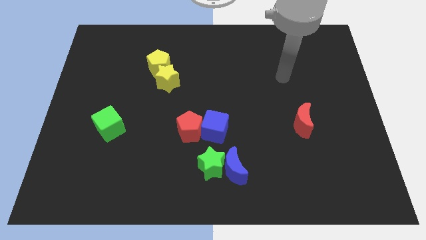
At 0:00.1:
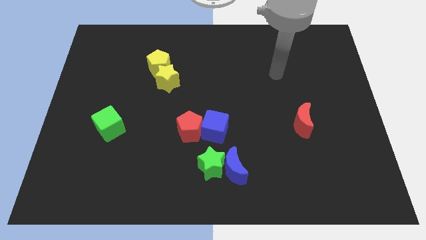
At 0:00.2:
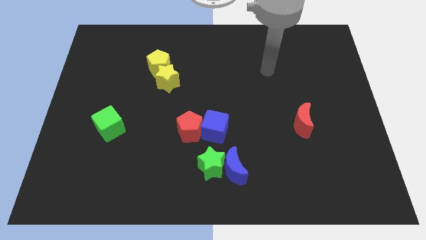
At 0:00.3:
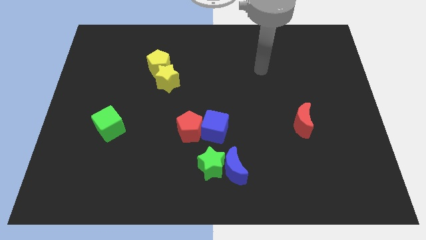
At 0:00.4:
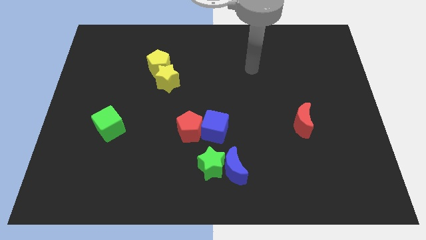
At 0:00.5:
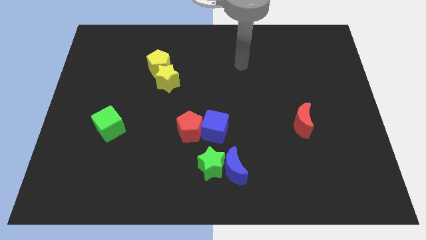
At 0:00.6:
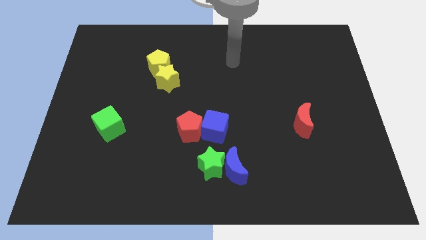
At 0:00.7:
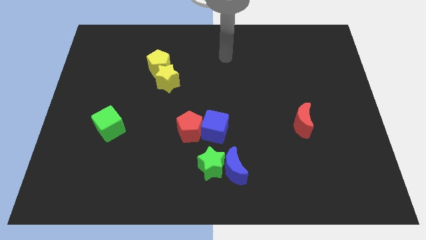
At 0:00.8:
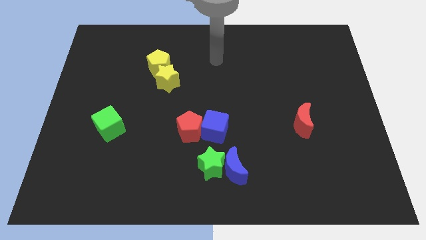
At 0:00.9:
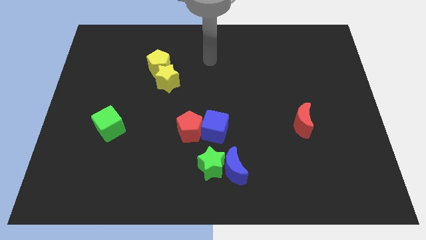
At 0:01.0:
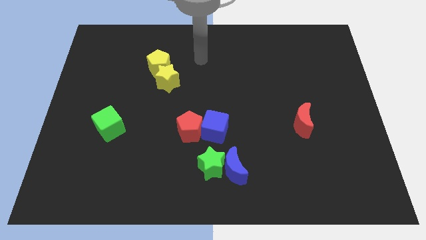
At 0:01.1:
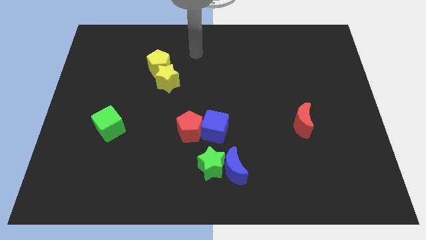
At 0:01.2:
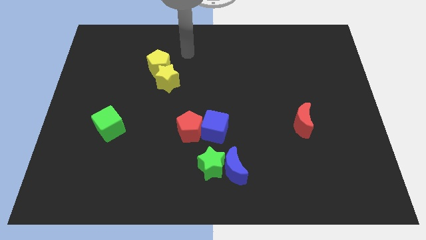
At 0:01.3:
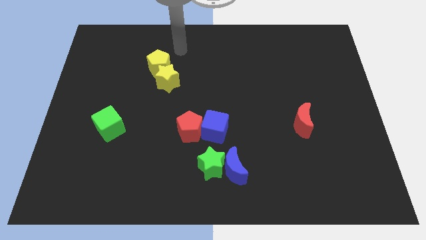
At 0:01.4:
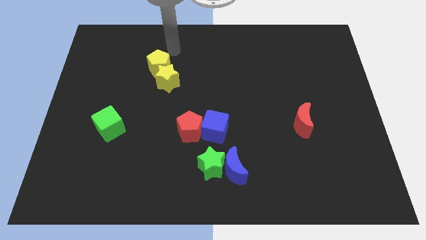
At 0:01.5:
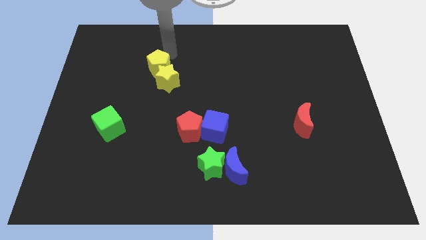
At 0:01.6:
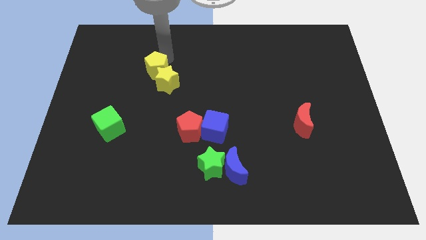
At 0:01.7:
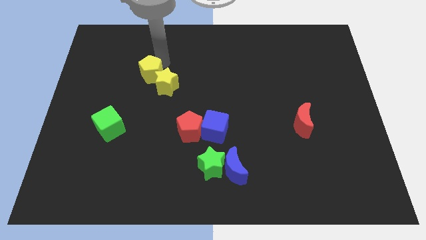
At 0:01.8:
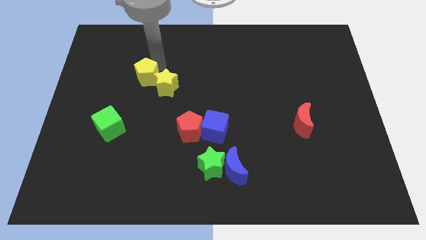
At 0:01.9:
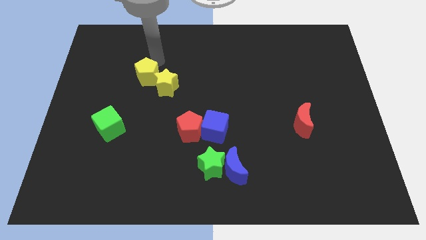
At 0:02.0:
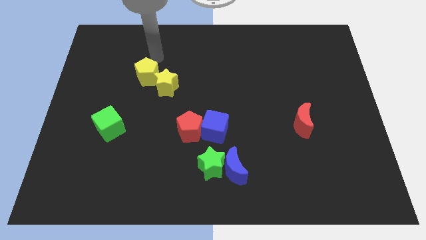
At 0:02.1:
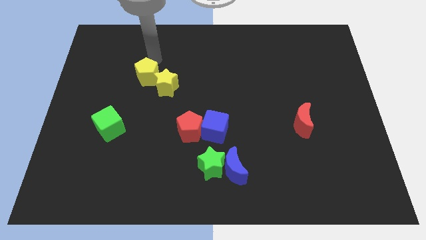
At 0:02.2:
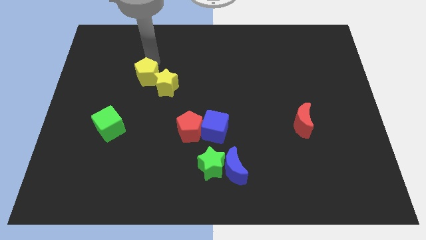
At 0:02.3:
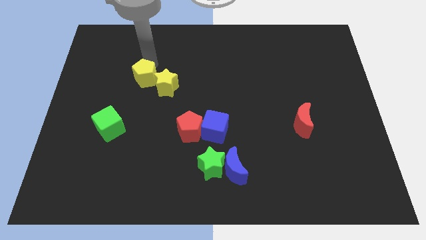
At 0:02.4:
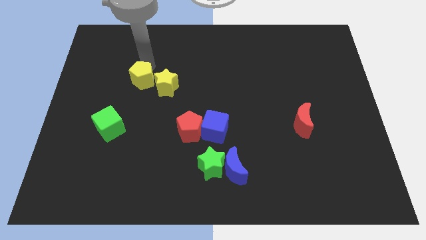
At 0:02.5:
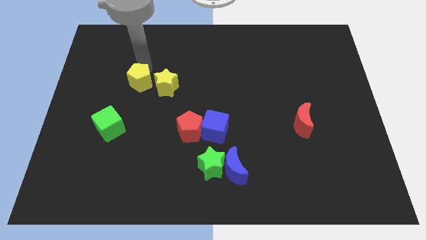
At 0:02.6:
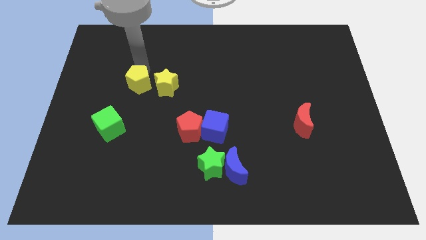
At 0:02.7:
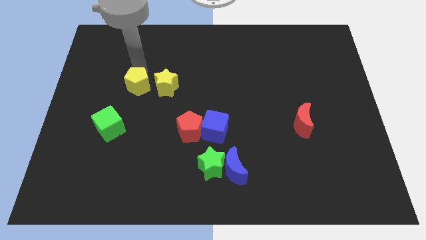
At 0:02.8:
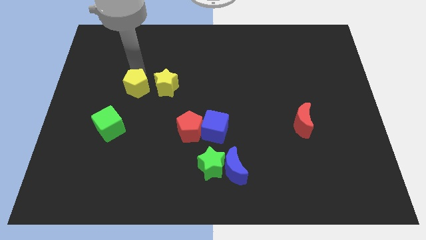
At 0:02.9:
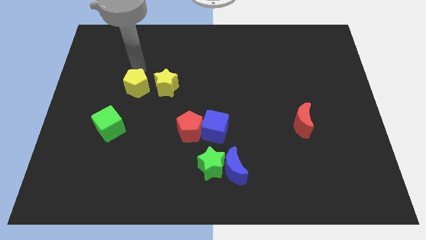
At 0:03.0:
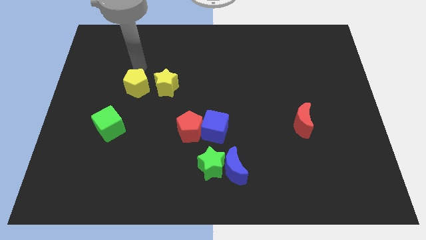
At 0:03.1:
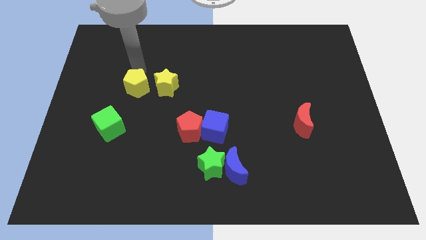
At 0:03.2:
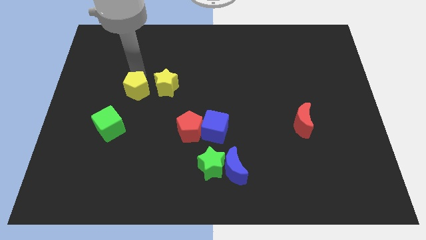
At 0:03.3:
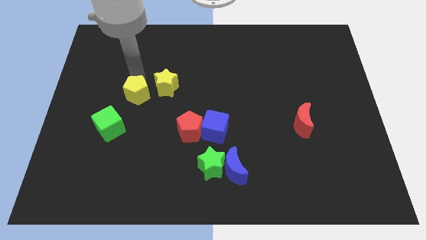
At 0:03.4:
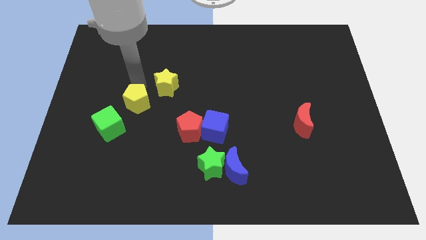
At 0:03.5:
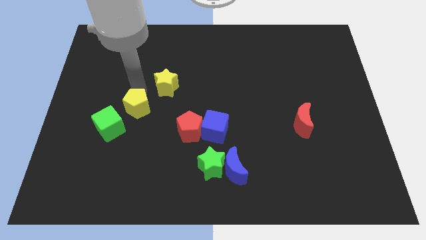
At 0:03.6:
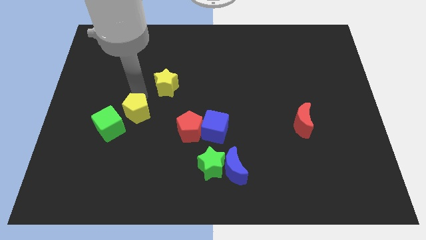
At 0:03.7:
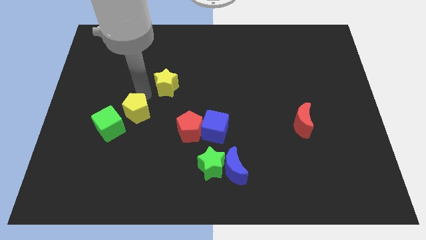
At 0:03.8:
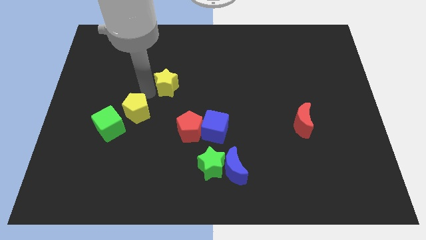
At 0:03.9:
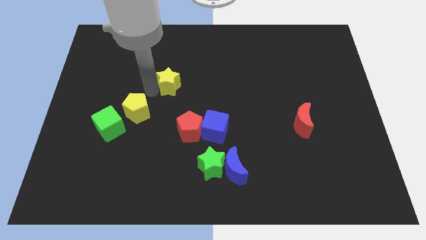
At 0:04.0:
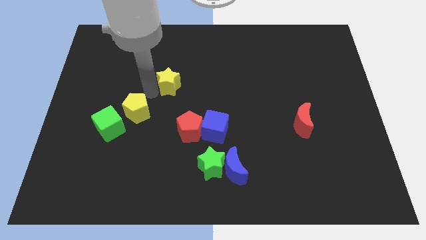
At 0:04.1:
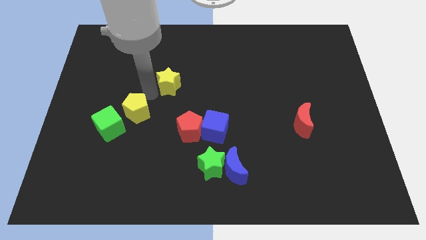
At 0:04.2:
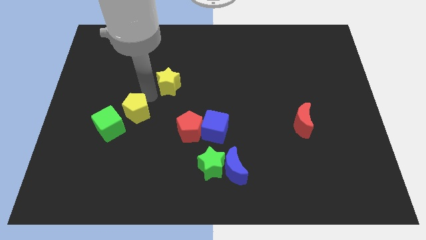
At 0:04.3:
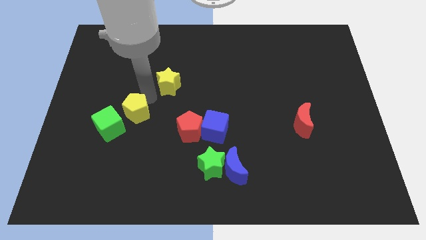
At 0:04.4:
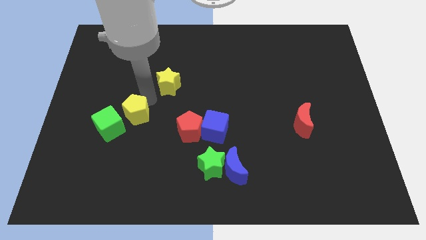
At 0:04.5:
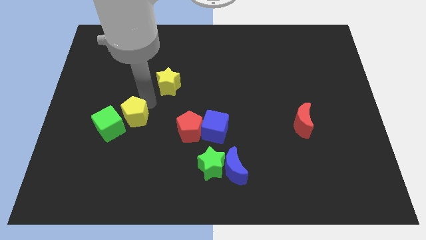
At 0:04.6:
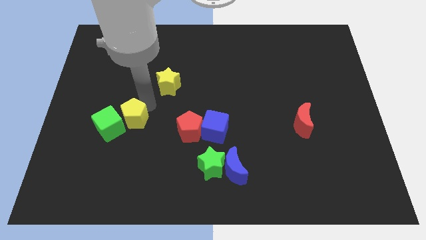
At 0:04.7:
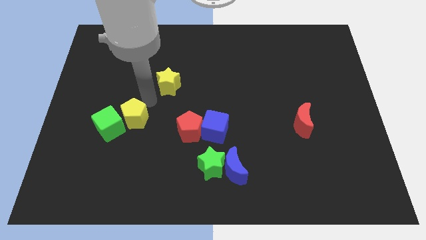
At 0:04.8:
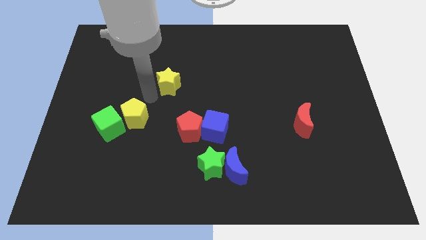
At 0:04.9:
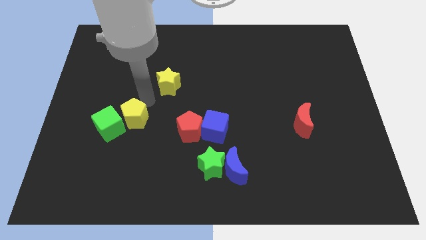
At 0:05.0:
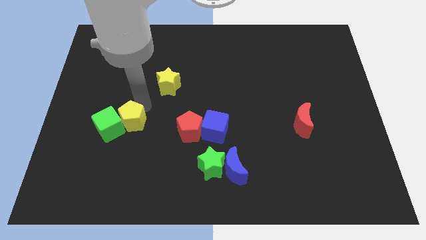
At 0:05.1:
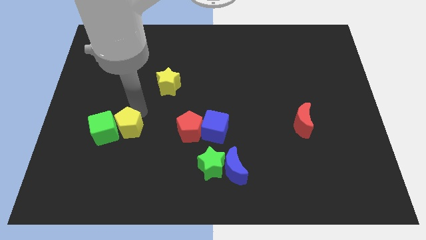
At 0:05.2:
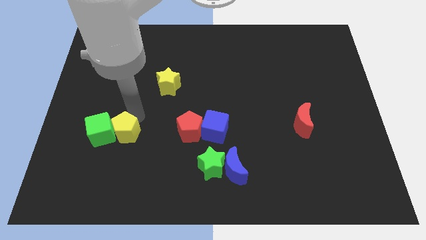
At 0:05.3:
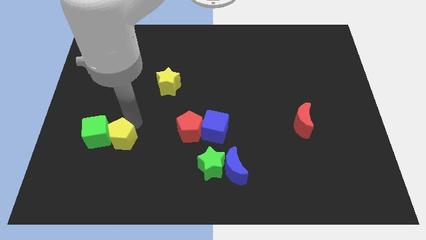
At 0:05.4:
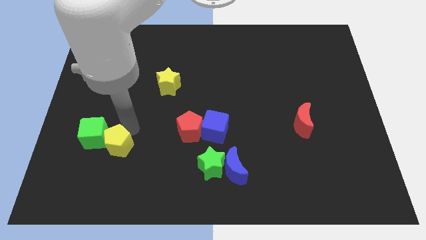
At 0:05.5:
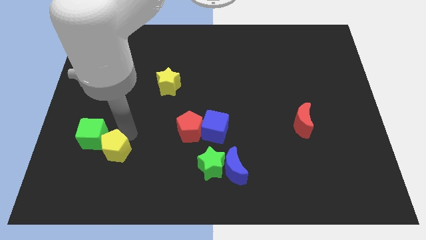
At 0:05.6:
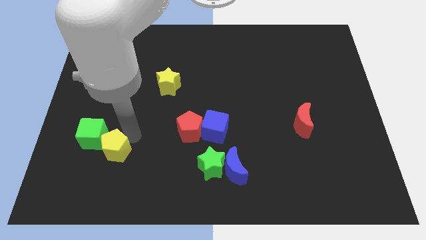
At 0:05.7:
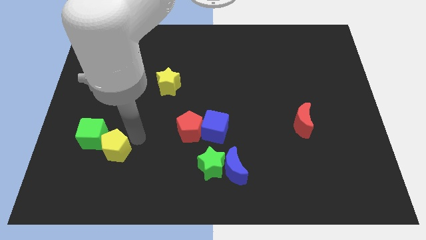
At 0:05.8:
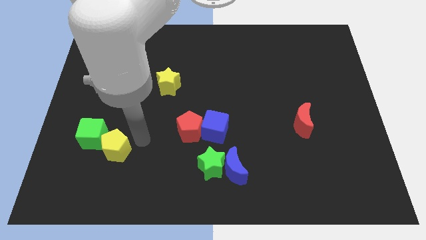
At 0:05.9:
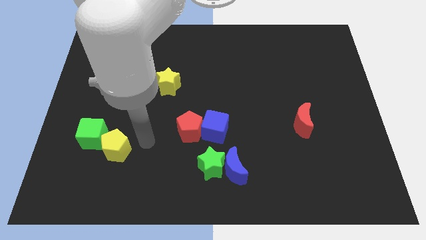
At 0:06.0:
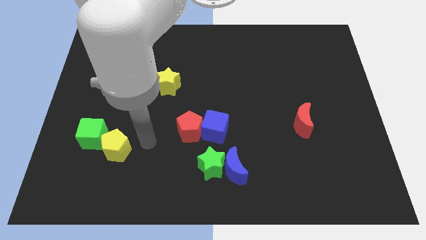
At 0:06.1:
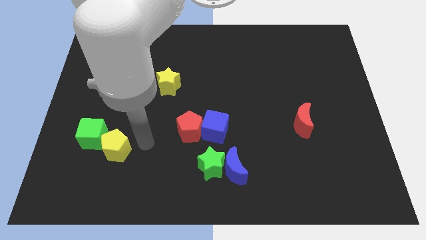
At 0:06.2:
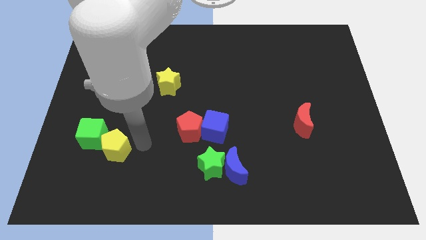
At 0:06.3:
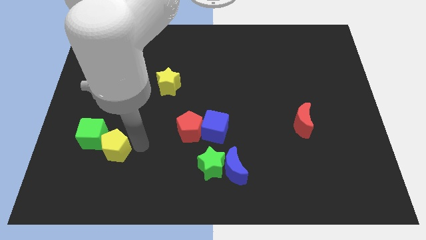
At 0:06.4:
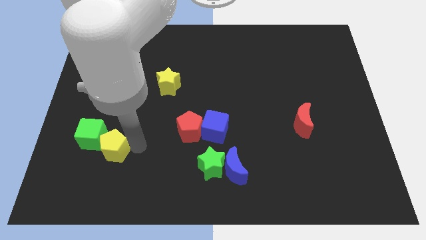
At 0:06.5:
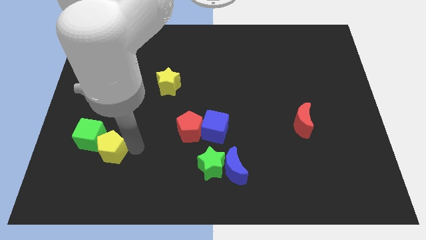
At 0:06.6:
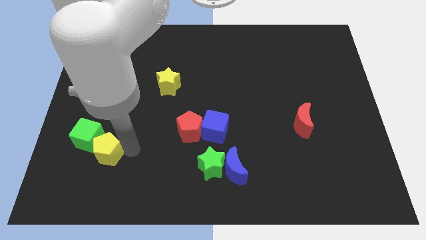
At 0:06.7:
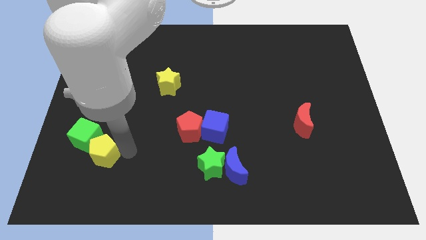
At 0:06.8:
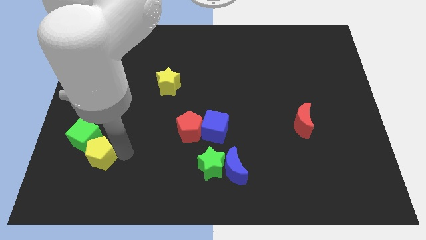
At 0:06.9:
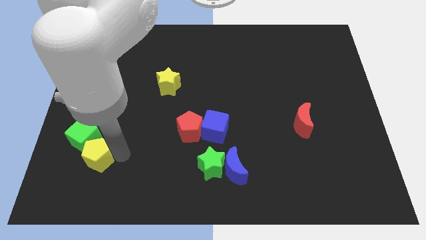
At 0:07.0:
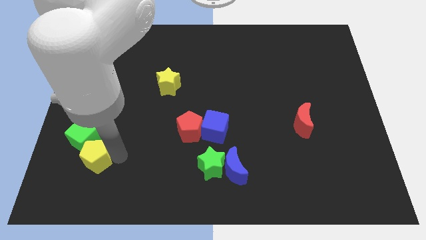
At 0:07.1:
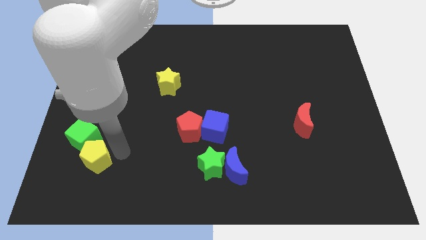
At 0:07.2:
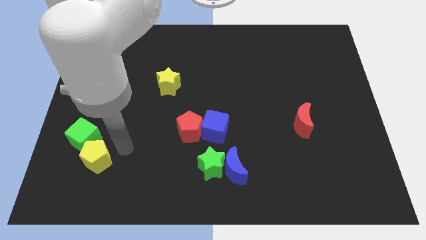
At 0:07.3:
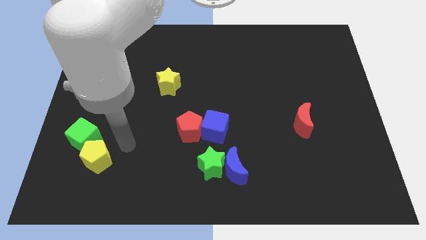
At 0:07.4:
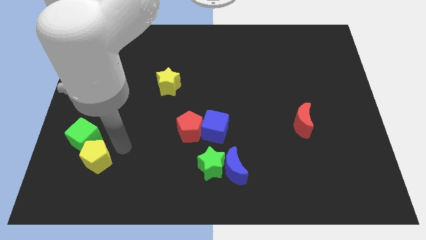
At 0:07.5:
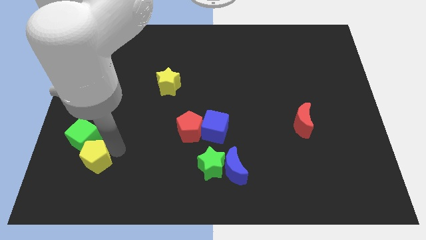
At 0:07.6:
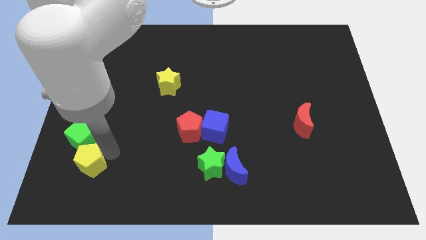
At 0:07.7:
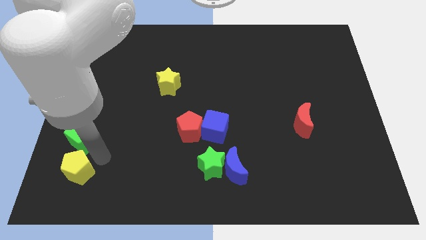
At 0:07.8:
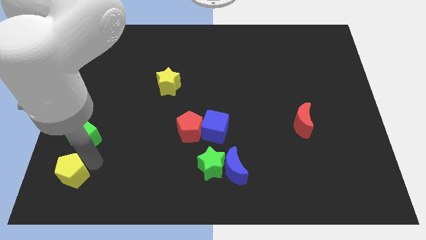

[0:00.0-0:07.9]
push the yellow pentagon to the bottom left

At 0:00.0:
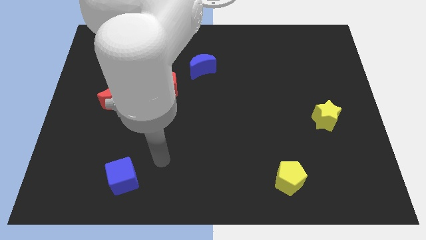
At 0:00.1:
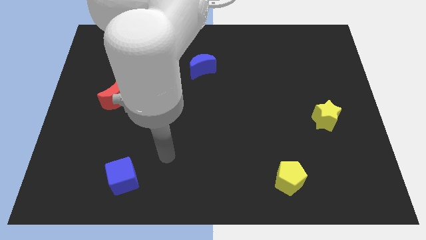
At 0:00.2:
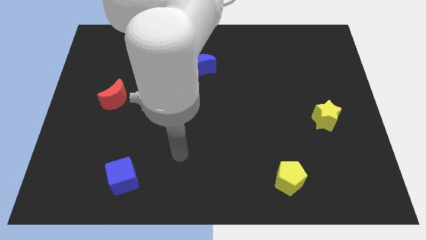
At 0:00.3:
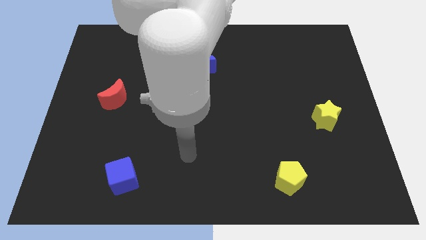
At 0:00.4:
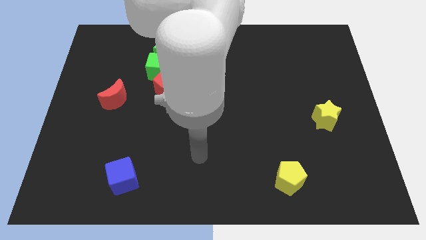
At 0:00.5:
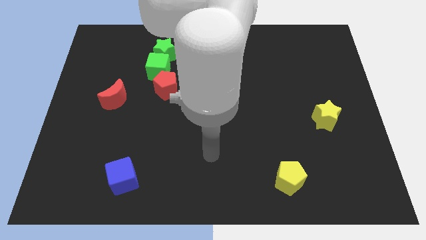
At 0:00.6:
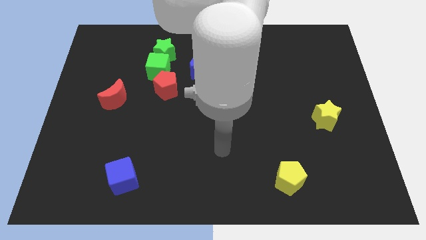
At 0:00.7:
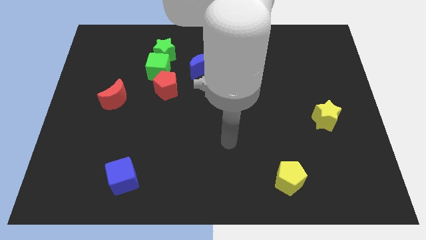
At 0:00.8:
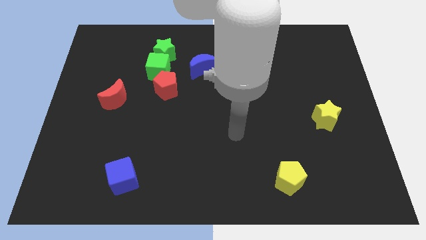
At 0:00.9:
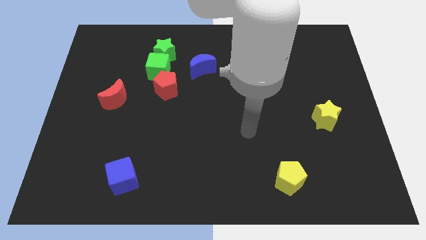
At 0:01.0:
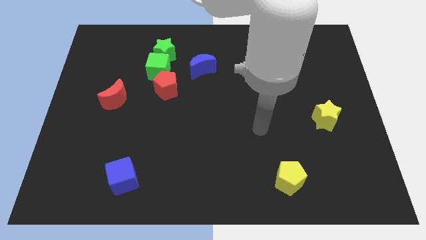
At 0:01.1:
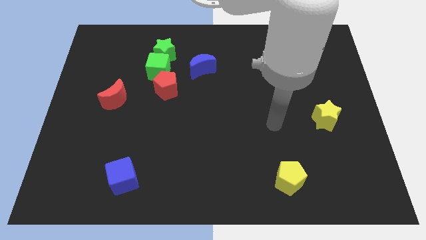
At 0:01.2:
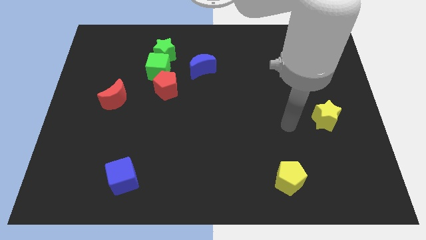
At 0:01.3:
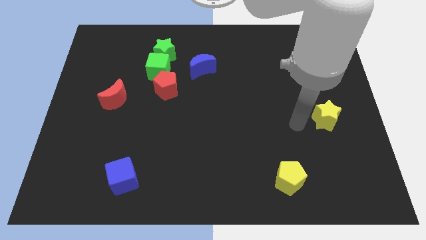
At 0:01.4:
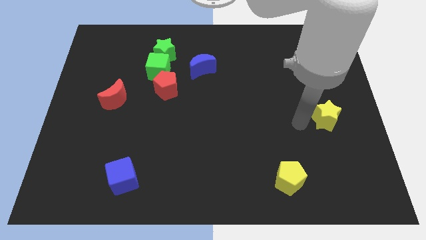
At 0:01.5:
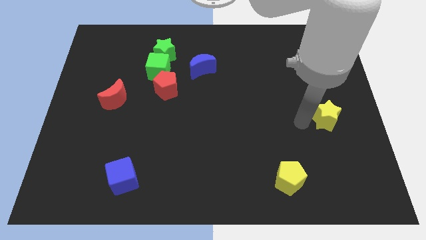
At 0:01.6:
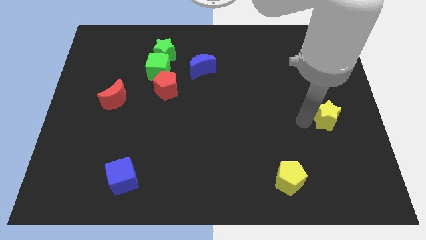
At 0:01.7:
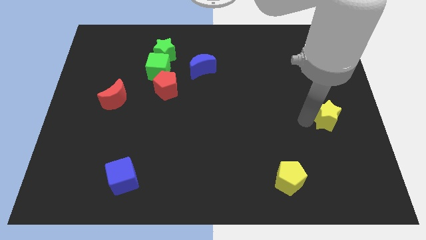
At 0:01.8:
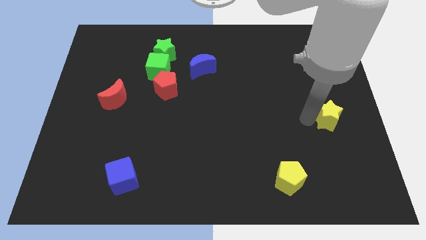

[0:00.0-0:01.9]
push the yellow star to the center right
